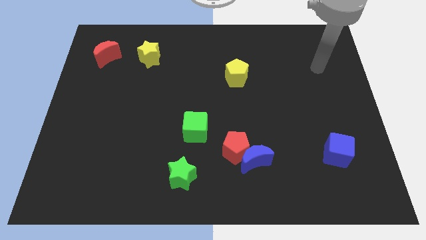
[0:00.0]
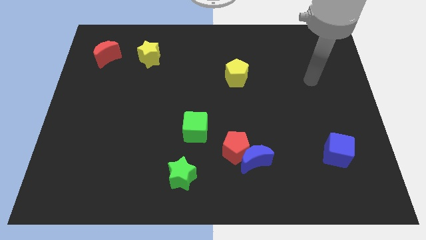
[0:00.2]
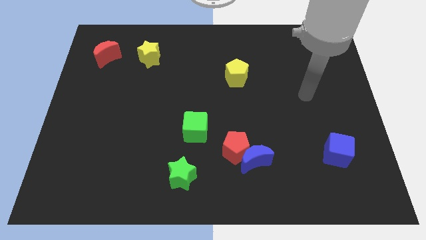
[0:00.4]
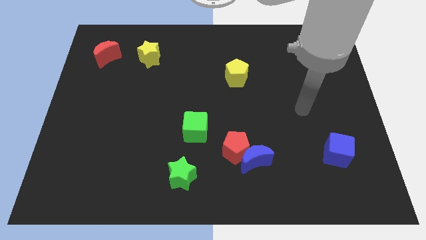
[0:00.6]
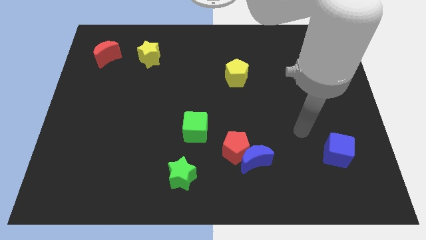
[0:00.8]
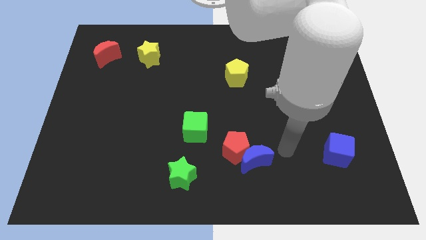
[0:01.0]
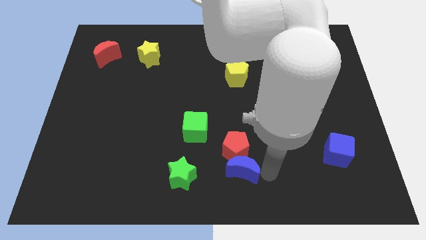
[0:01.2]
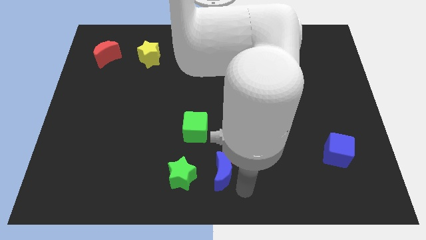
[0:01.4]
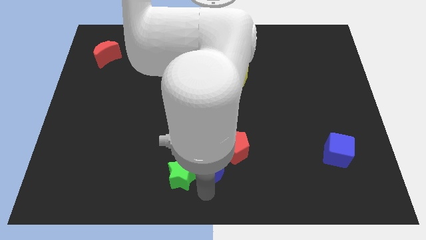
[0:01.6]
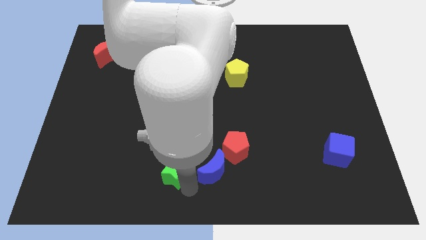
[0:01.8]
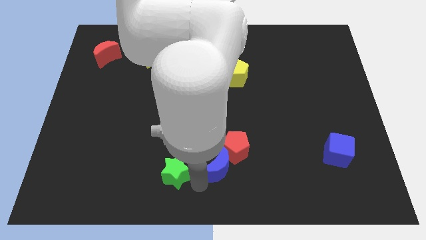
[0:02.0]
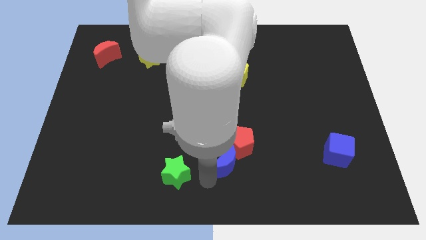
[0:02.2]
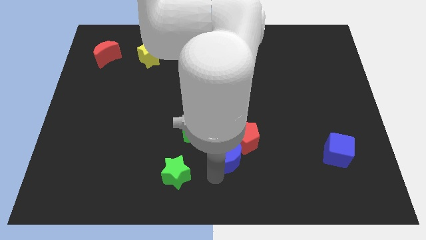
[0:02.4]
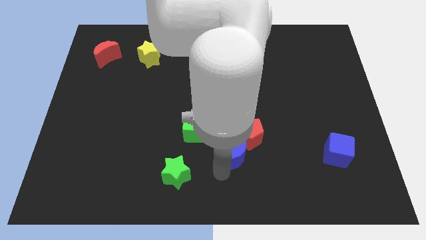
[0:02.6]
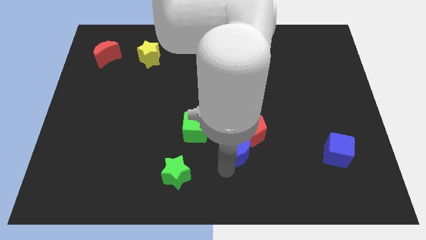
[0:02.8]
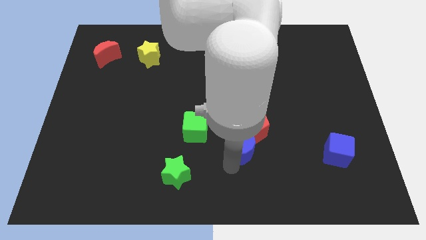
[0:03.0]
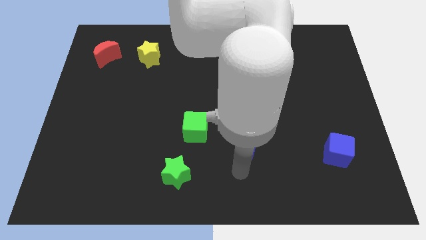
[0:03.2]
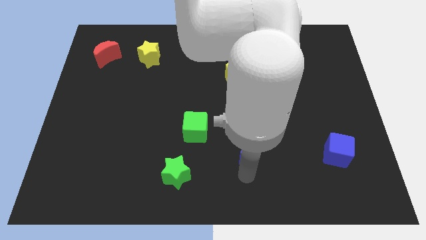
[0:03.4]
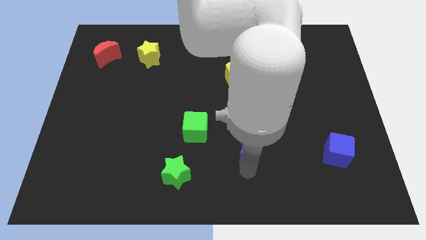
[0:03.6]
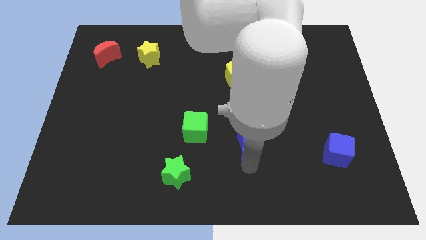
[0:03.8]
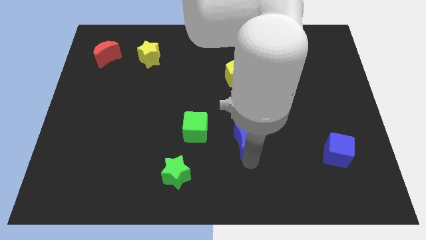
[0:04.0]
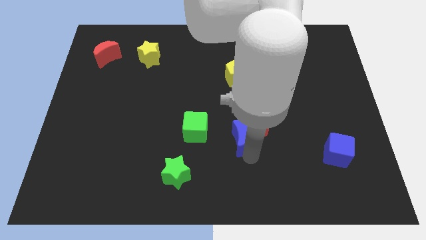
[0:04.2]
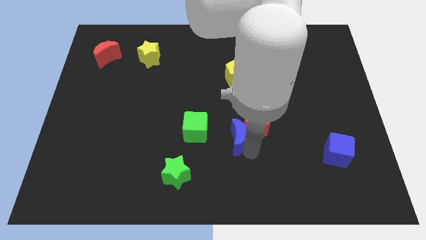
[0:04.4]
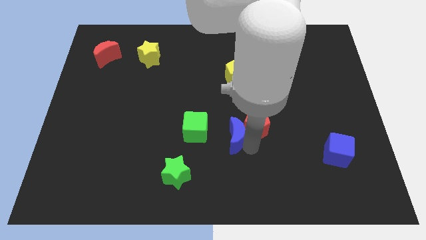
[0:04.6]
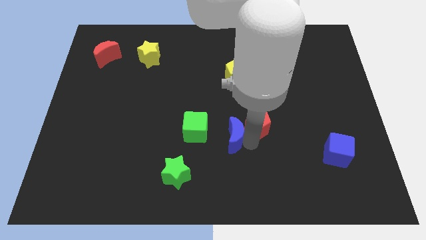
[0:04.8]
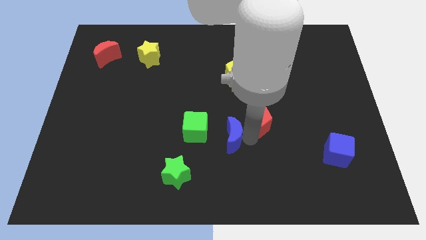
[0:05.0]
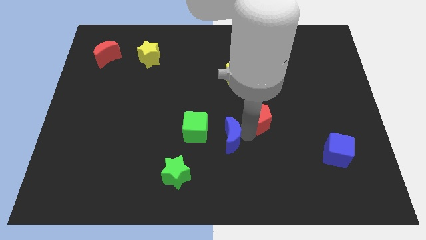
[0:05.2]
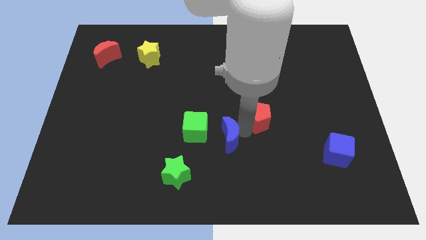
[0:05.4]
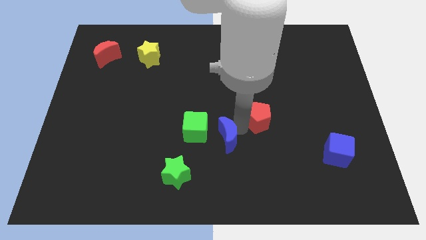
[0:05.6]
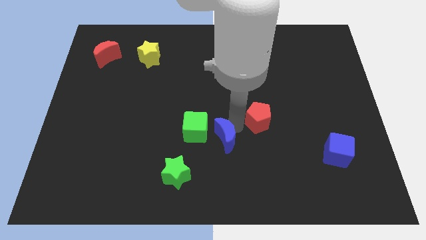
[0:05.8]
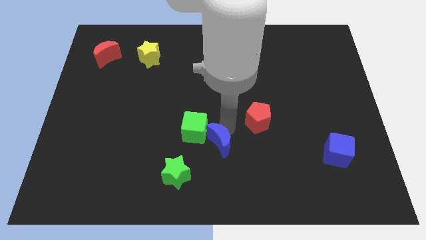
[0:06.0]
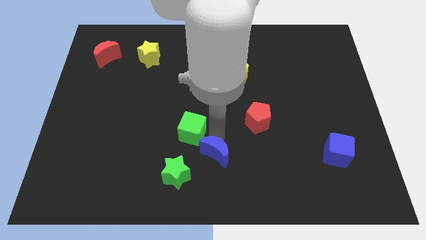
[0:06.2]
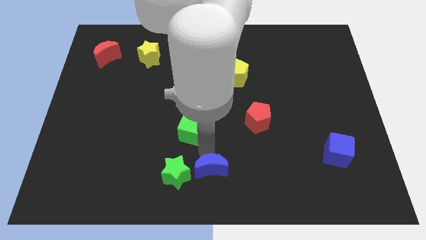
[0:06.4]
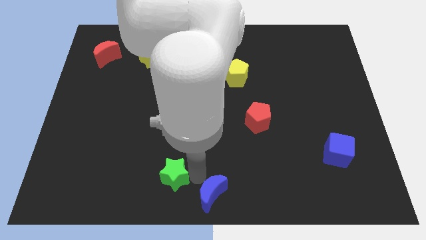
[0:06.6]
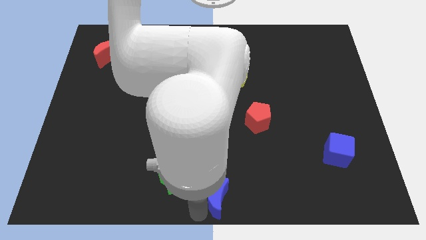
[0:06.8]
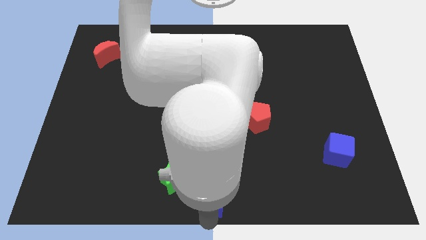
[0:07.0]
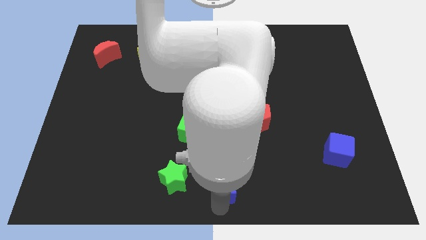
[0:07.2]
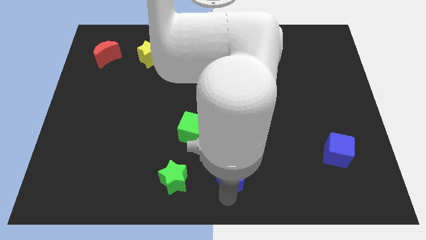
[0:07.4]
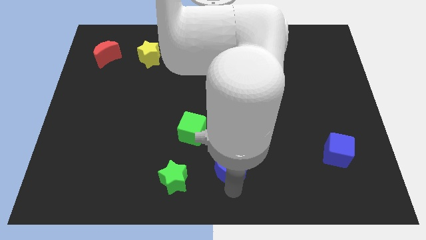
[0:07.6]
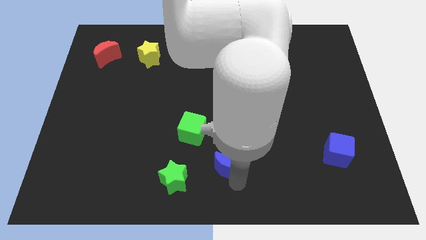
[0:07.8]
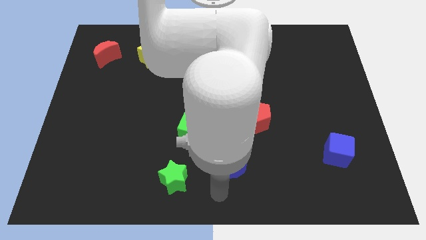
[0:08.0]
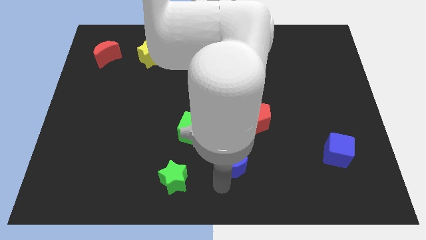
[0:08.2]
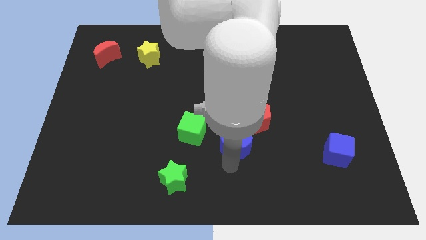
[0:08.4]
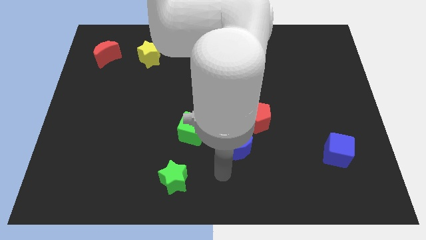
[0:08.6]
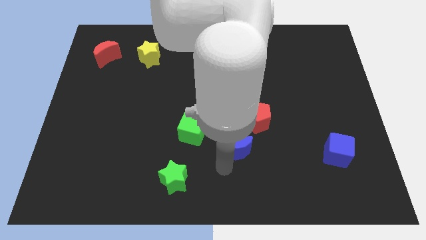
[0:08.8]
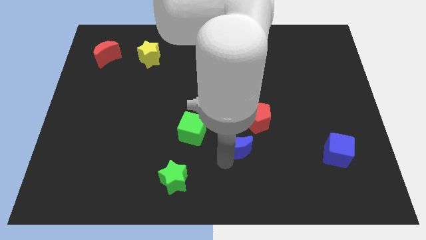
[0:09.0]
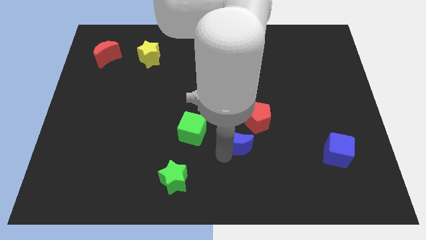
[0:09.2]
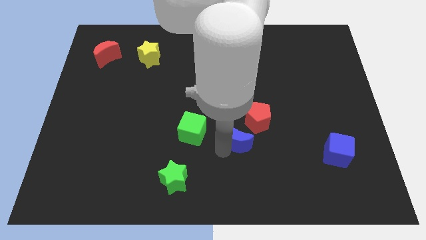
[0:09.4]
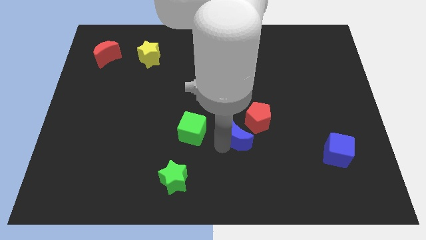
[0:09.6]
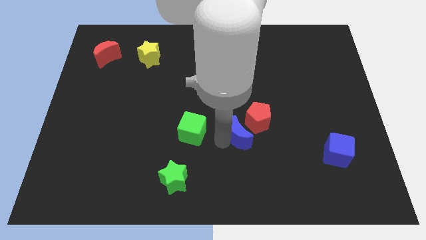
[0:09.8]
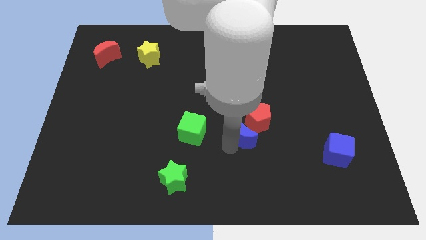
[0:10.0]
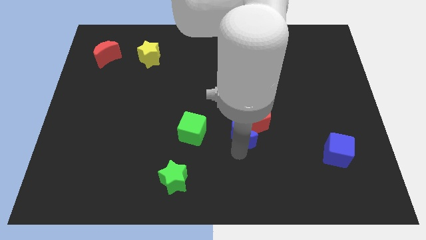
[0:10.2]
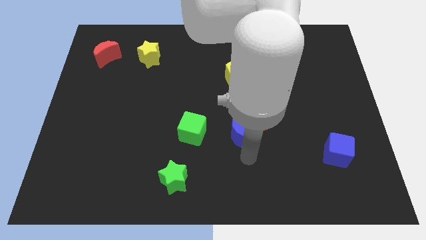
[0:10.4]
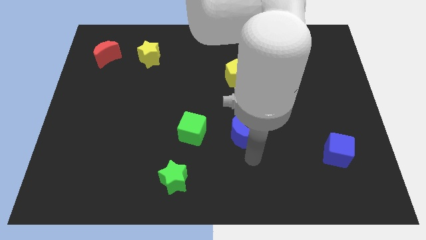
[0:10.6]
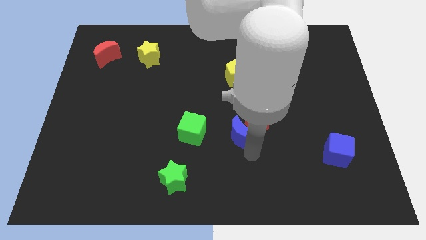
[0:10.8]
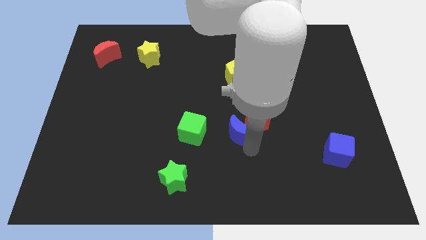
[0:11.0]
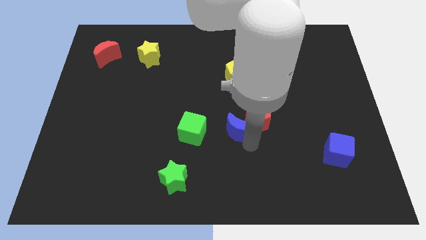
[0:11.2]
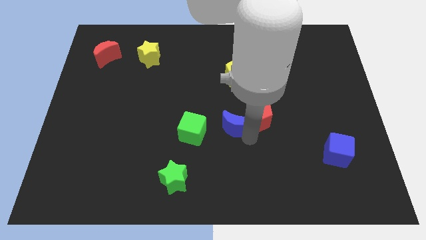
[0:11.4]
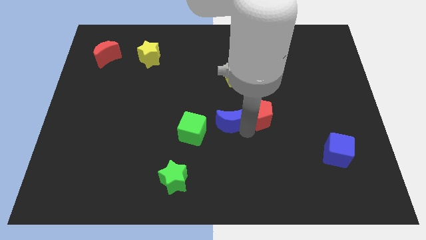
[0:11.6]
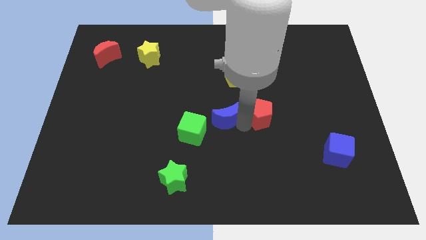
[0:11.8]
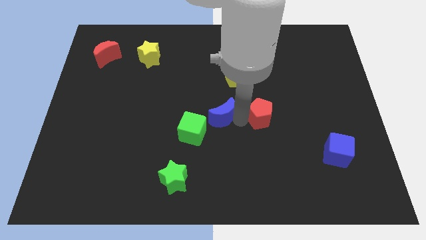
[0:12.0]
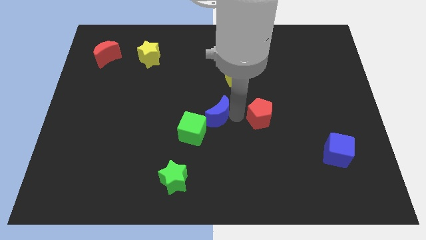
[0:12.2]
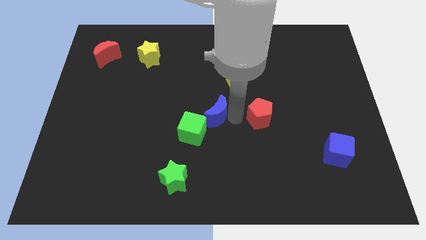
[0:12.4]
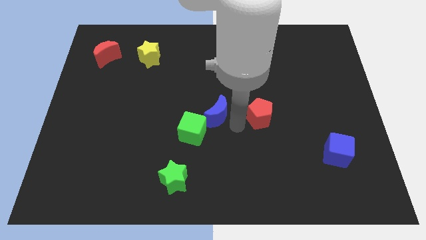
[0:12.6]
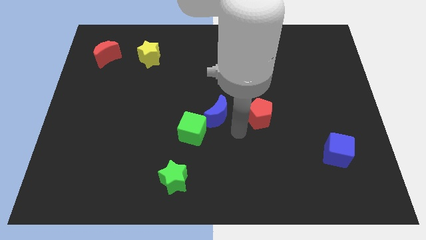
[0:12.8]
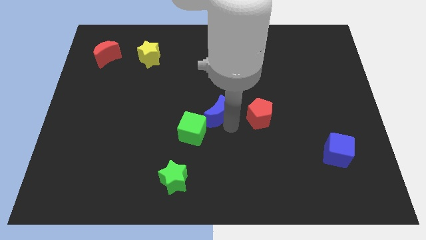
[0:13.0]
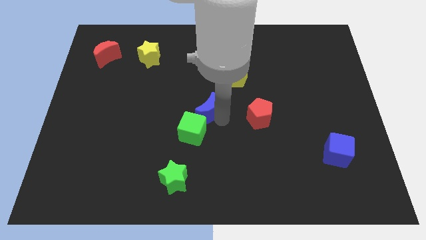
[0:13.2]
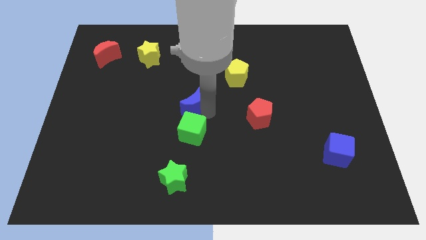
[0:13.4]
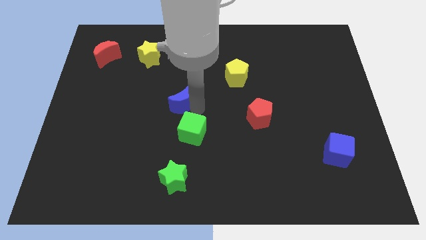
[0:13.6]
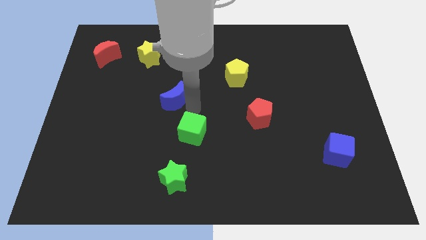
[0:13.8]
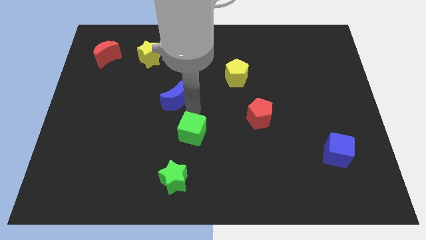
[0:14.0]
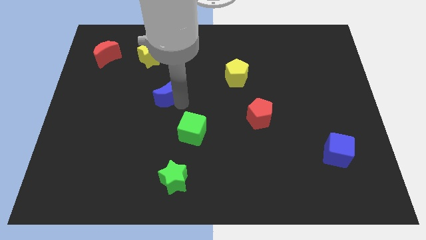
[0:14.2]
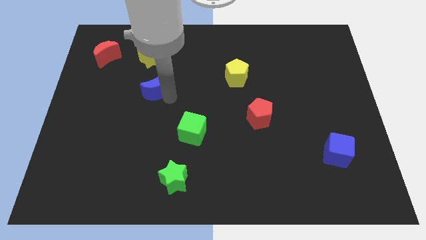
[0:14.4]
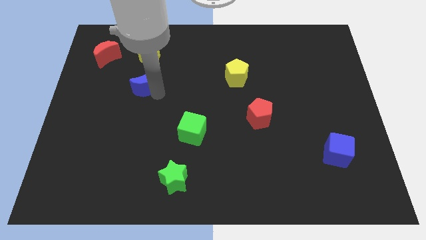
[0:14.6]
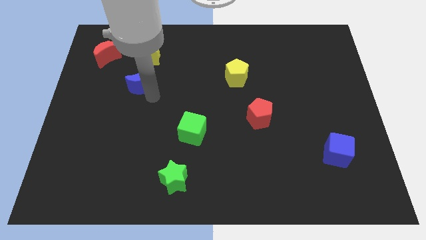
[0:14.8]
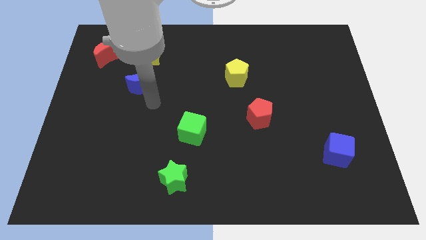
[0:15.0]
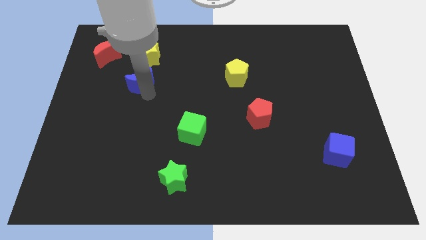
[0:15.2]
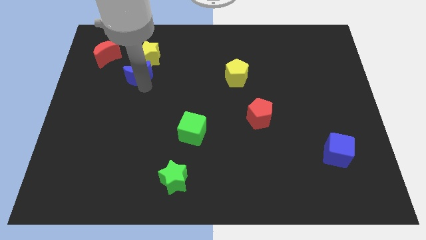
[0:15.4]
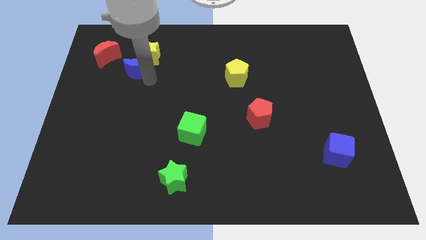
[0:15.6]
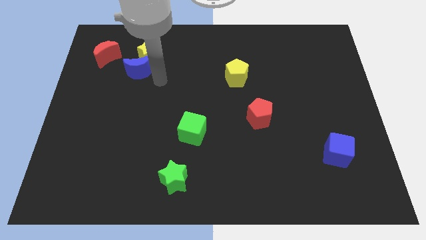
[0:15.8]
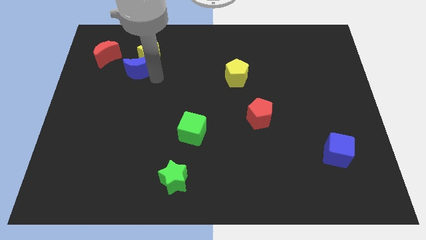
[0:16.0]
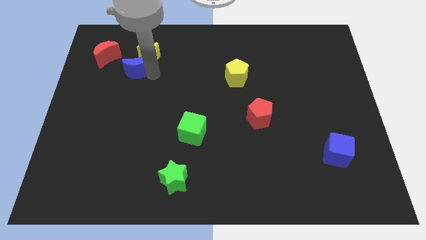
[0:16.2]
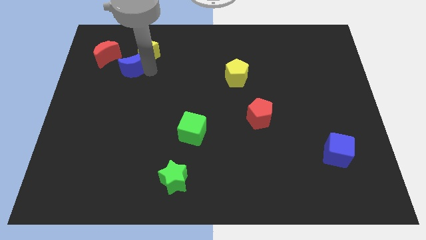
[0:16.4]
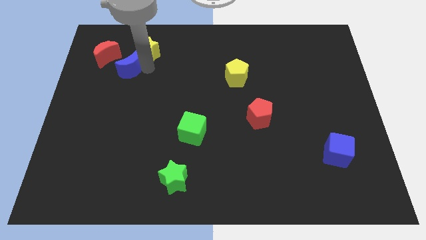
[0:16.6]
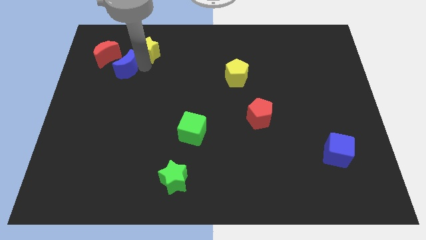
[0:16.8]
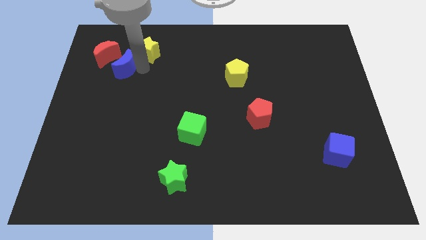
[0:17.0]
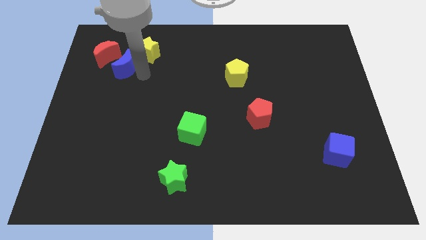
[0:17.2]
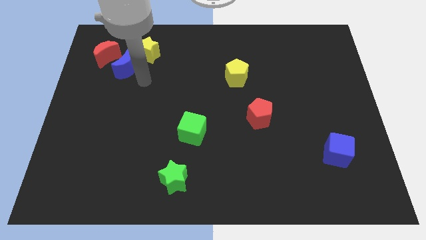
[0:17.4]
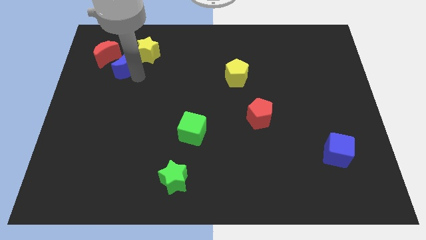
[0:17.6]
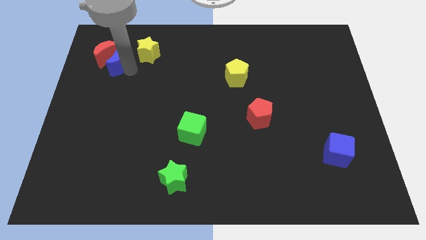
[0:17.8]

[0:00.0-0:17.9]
move the blue moon towards the red moon
